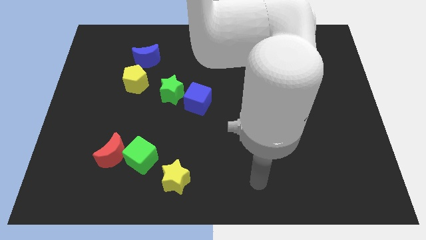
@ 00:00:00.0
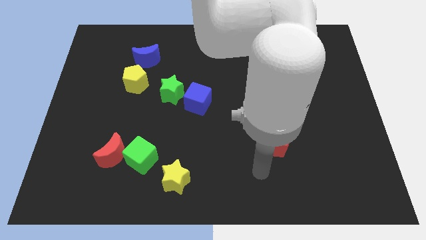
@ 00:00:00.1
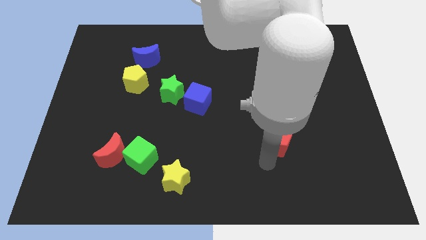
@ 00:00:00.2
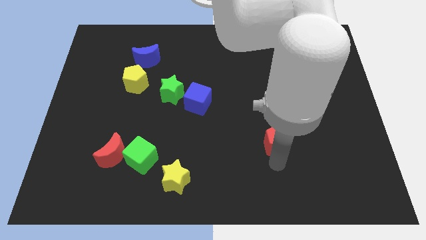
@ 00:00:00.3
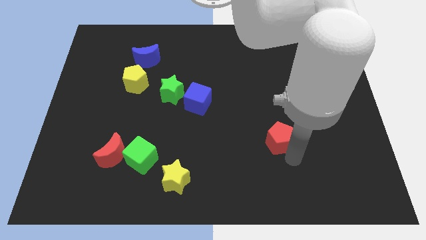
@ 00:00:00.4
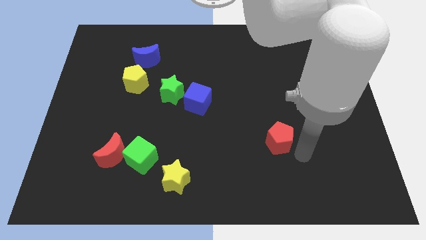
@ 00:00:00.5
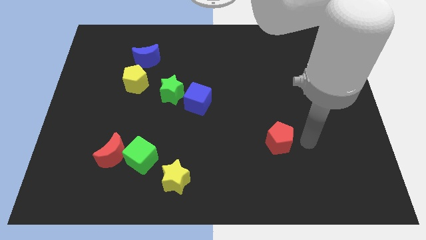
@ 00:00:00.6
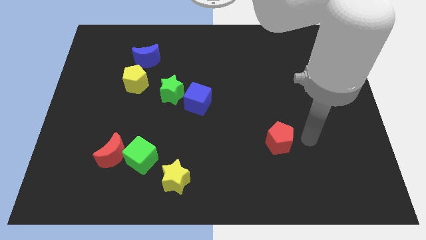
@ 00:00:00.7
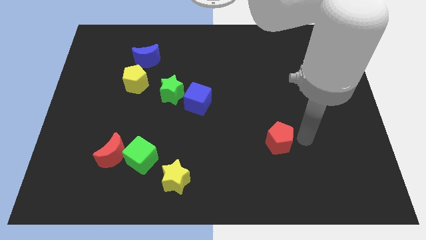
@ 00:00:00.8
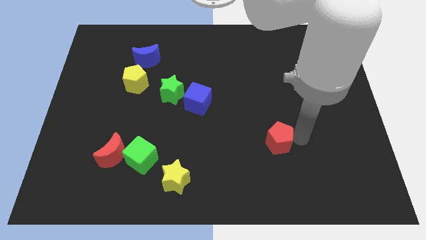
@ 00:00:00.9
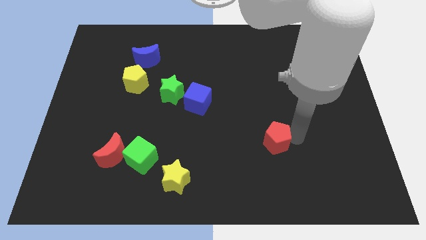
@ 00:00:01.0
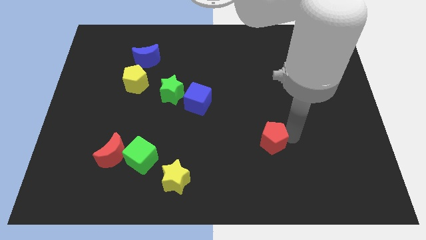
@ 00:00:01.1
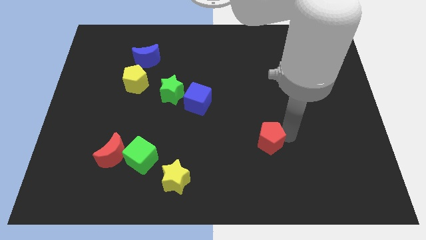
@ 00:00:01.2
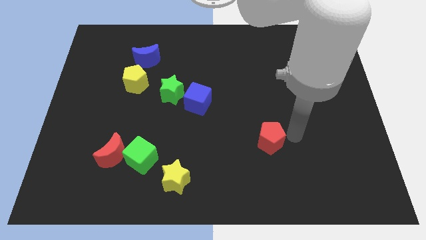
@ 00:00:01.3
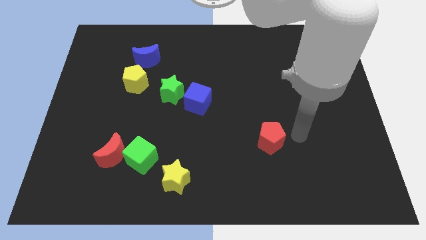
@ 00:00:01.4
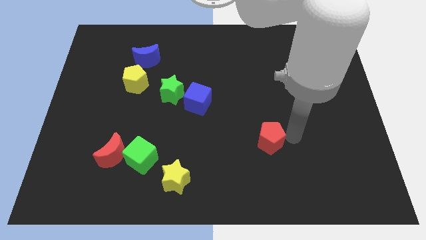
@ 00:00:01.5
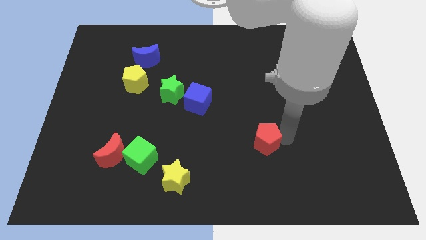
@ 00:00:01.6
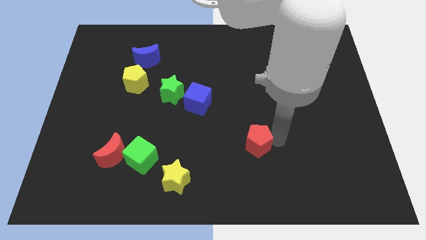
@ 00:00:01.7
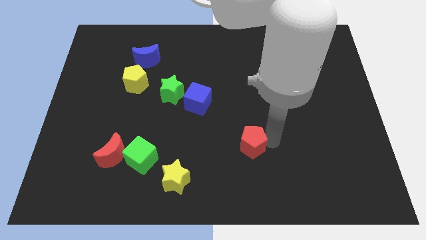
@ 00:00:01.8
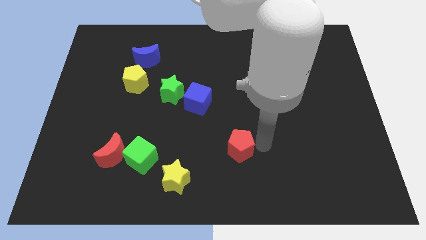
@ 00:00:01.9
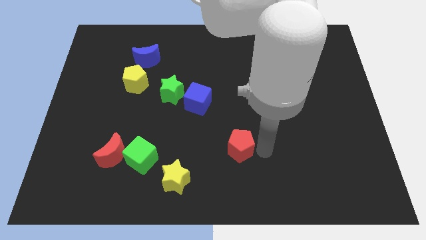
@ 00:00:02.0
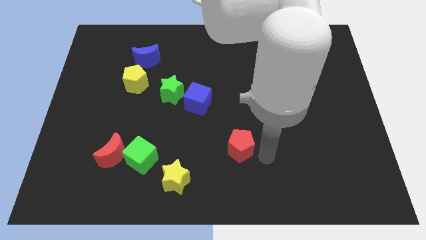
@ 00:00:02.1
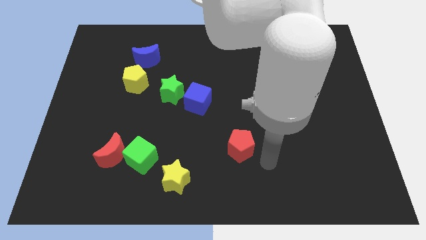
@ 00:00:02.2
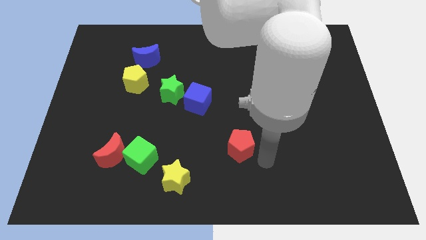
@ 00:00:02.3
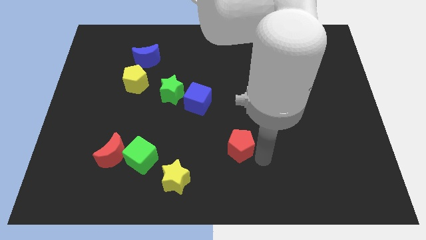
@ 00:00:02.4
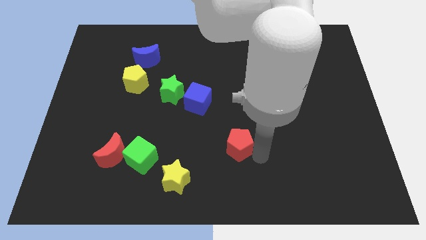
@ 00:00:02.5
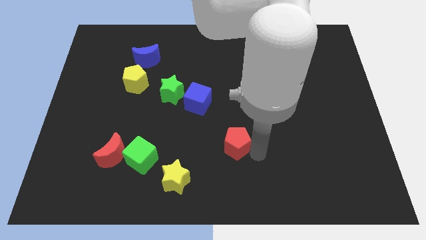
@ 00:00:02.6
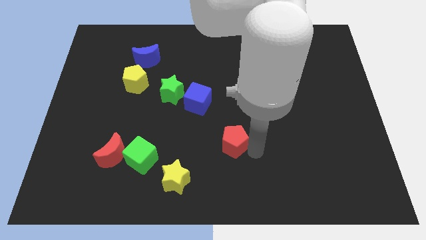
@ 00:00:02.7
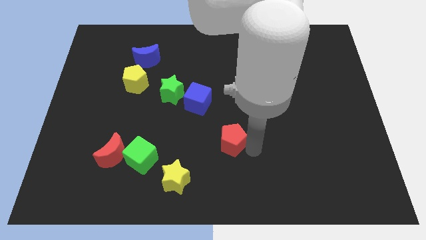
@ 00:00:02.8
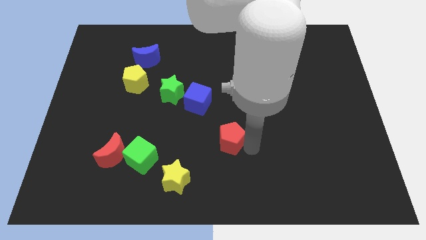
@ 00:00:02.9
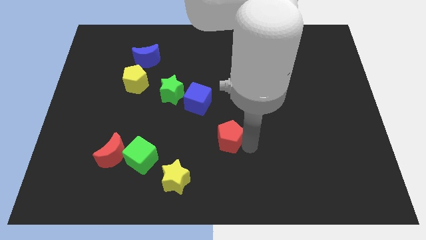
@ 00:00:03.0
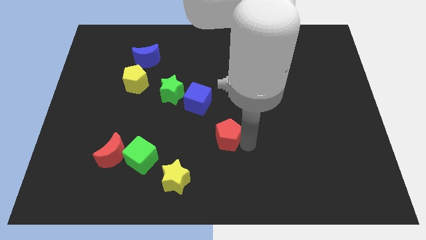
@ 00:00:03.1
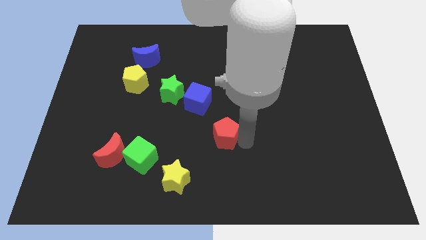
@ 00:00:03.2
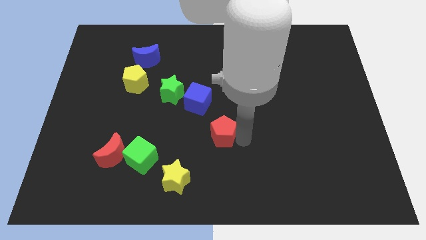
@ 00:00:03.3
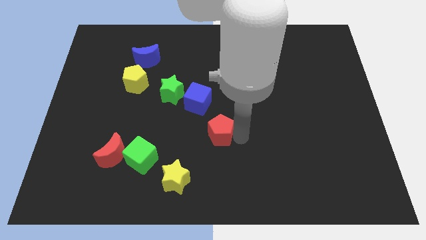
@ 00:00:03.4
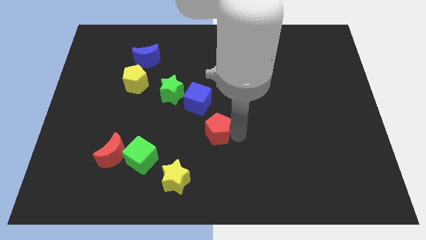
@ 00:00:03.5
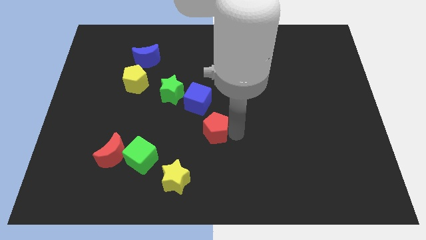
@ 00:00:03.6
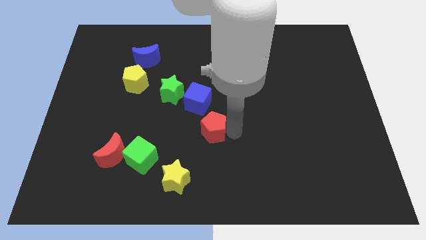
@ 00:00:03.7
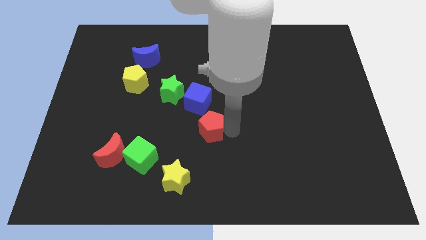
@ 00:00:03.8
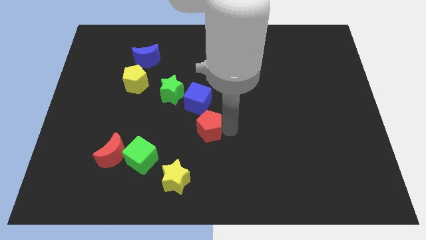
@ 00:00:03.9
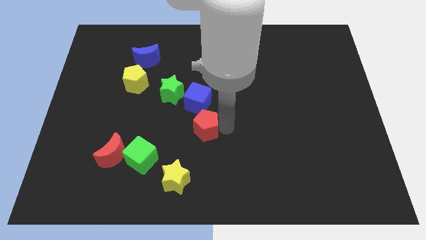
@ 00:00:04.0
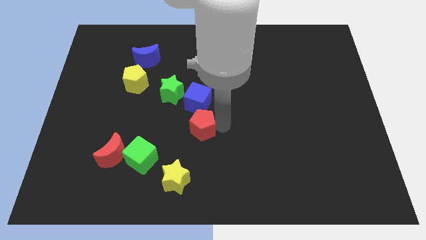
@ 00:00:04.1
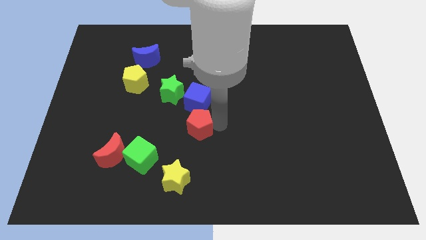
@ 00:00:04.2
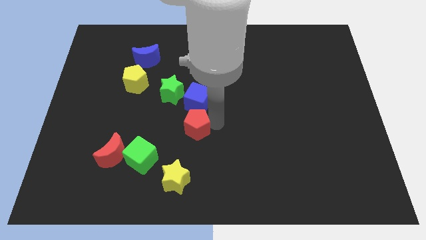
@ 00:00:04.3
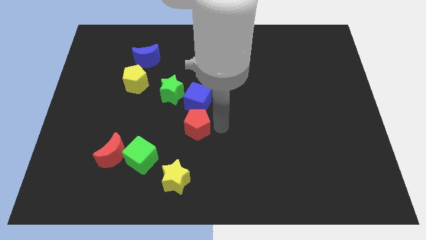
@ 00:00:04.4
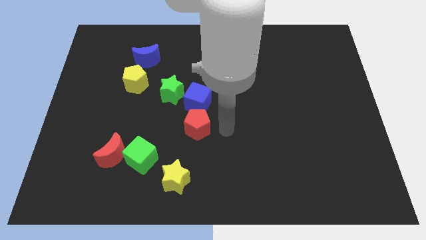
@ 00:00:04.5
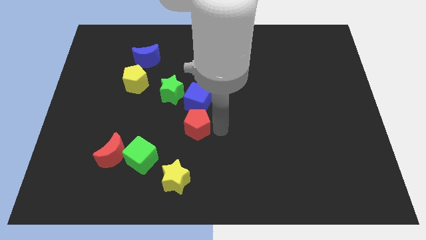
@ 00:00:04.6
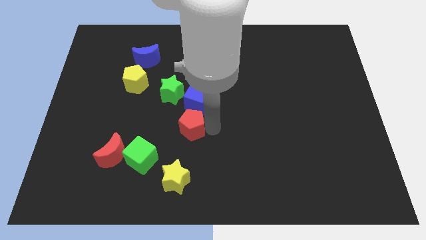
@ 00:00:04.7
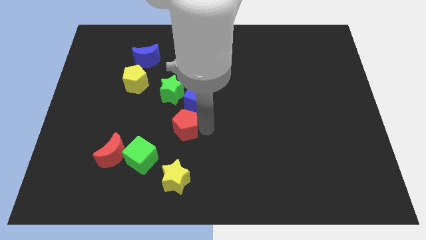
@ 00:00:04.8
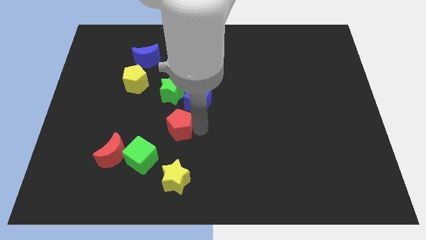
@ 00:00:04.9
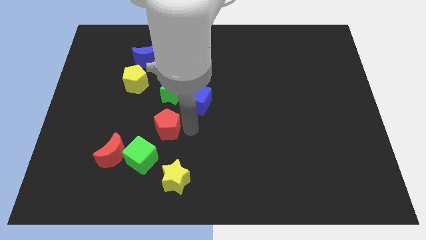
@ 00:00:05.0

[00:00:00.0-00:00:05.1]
put the red pentagon to the top of the green cube

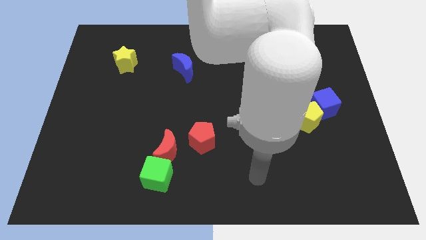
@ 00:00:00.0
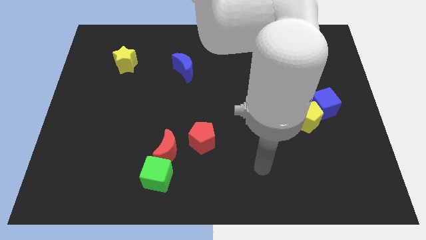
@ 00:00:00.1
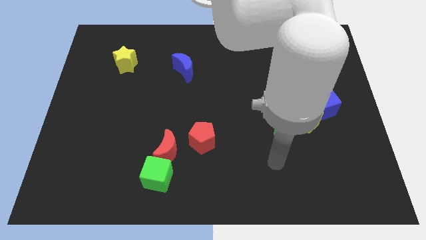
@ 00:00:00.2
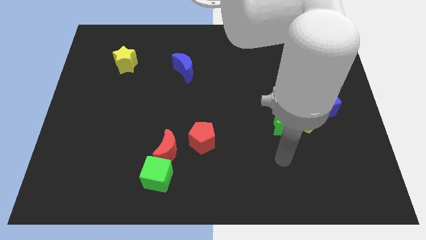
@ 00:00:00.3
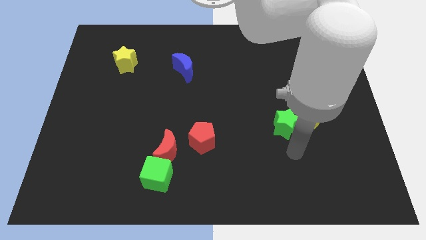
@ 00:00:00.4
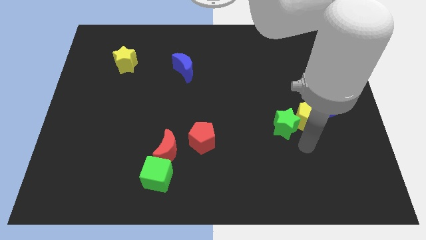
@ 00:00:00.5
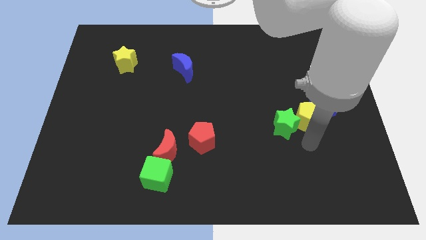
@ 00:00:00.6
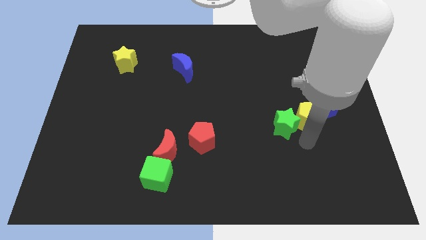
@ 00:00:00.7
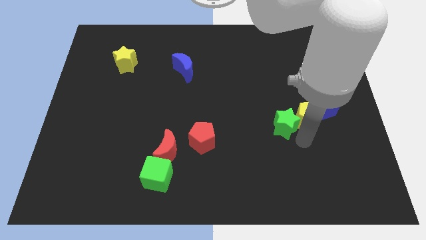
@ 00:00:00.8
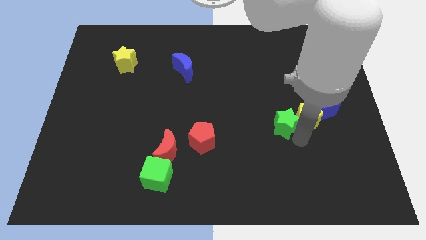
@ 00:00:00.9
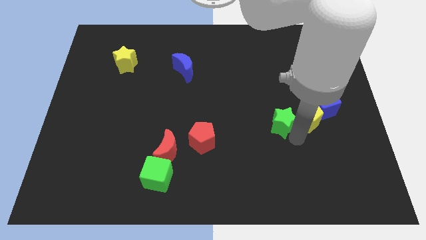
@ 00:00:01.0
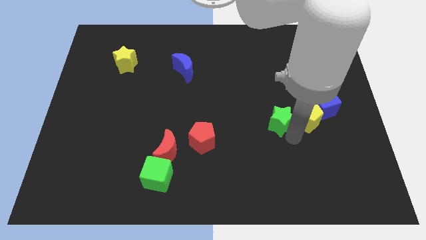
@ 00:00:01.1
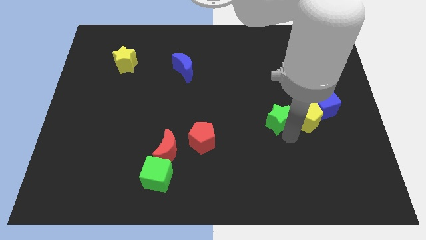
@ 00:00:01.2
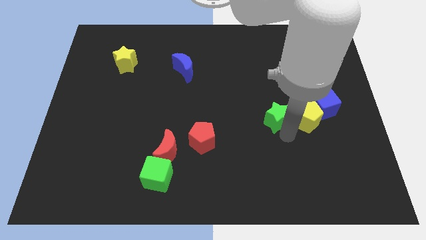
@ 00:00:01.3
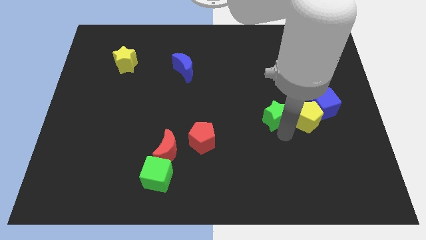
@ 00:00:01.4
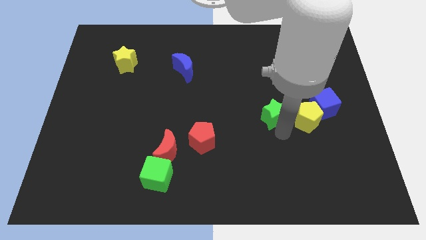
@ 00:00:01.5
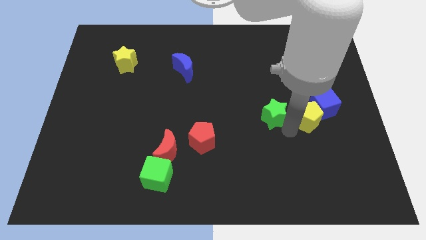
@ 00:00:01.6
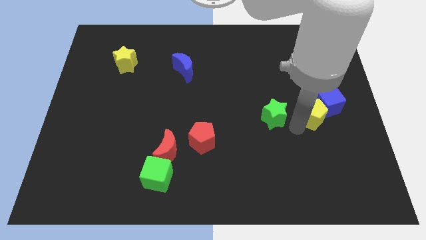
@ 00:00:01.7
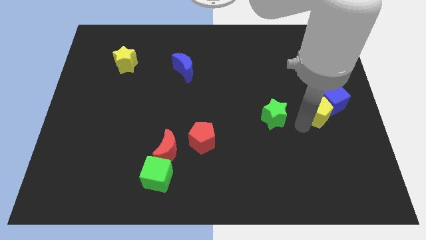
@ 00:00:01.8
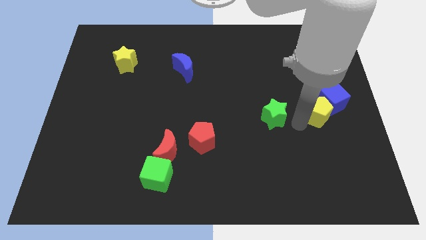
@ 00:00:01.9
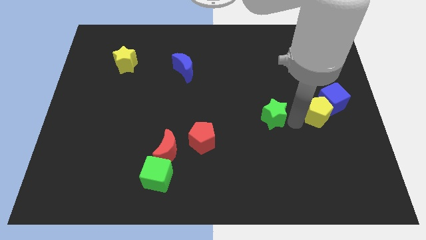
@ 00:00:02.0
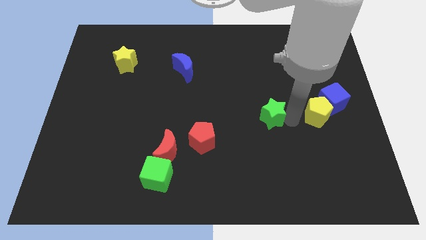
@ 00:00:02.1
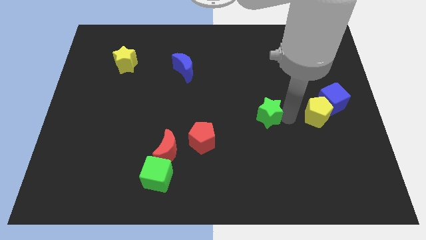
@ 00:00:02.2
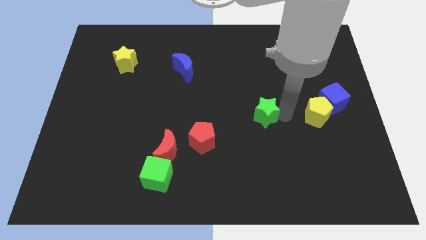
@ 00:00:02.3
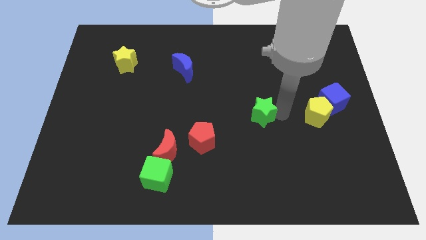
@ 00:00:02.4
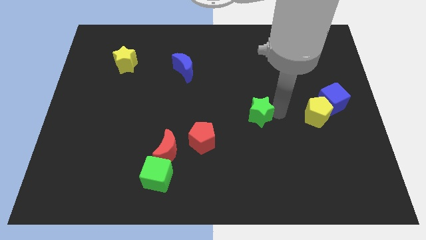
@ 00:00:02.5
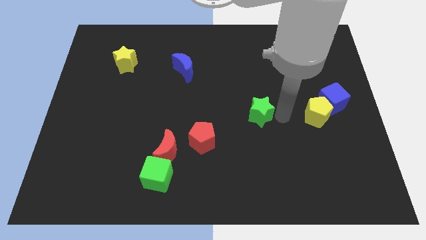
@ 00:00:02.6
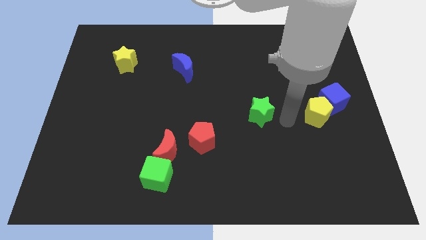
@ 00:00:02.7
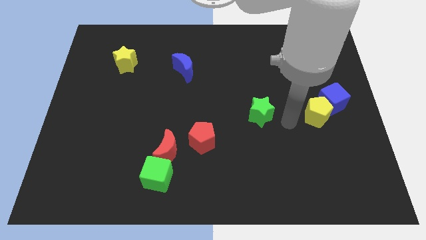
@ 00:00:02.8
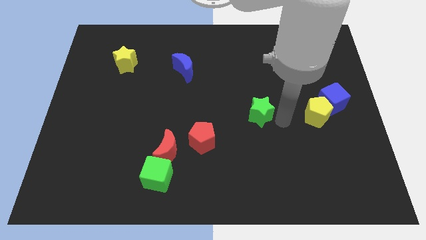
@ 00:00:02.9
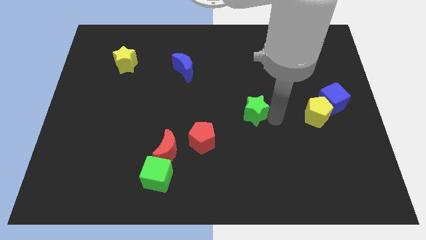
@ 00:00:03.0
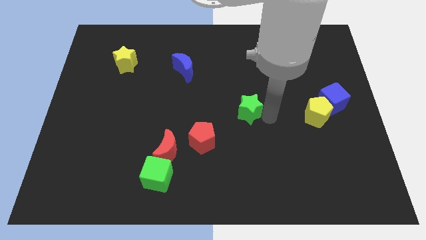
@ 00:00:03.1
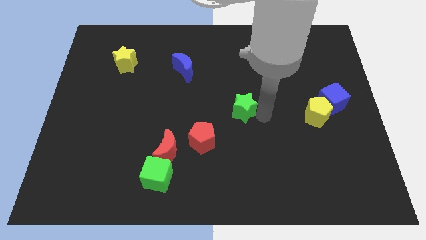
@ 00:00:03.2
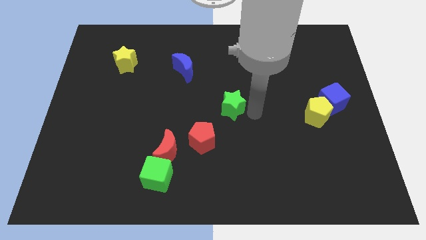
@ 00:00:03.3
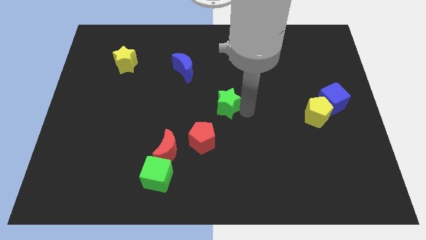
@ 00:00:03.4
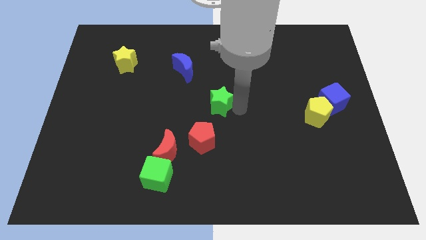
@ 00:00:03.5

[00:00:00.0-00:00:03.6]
put the green star above the red pentagon
